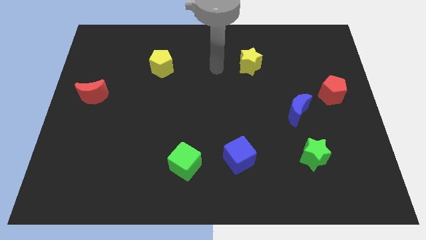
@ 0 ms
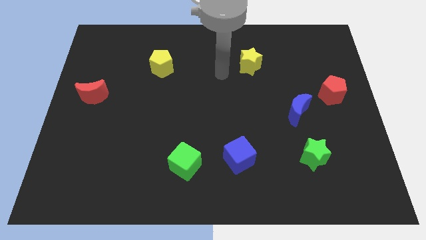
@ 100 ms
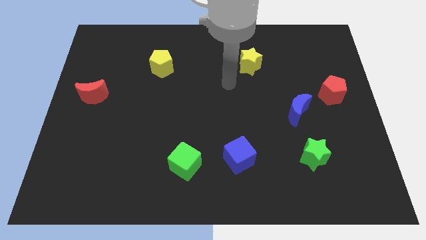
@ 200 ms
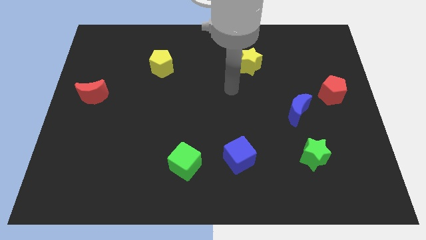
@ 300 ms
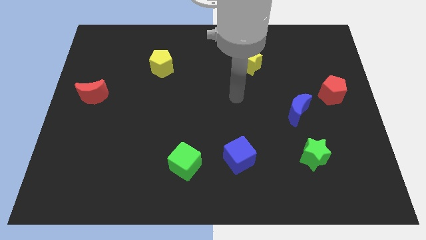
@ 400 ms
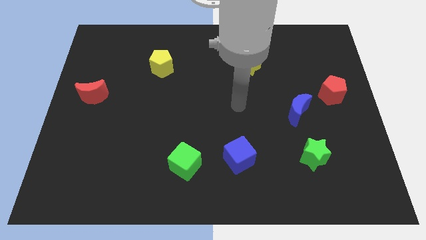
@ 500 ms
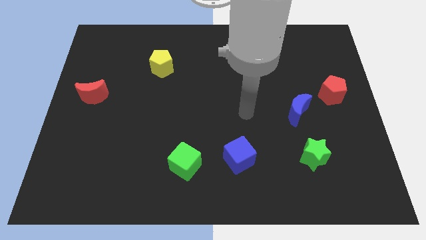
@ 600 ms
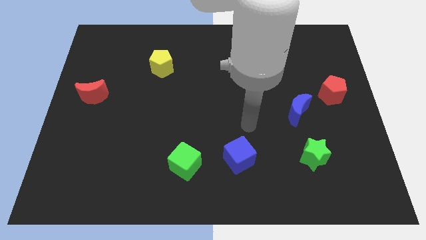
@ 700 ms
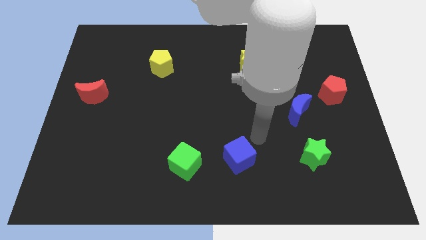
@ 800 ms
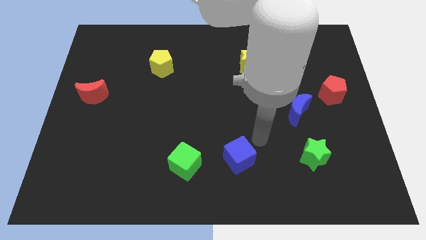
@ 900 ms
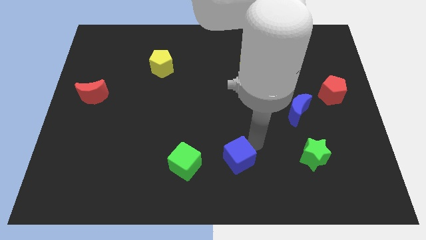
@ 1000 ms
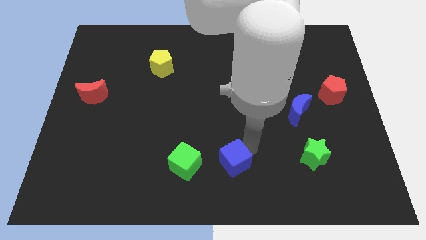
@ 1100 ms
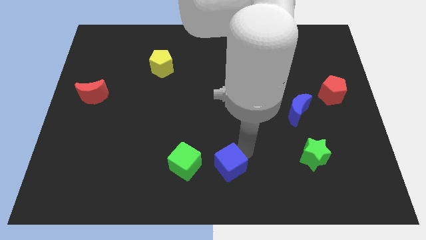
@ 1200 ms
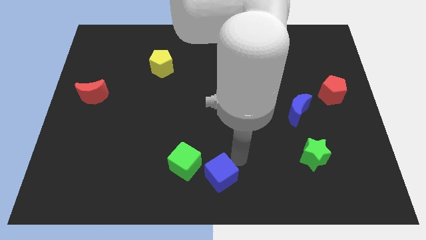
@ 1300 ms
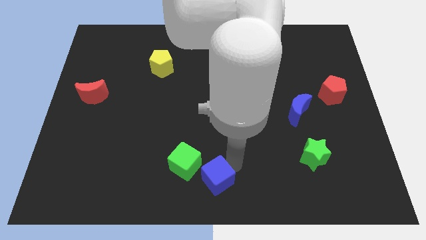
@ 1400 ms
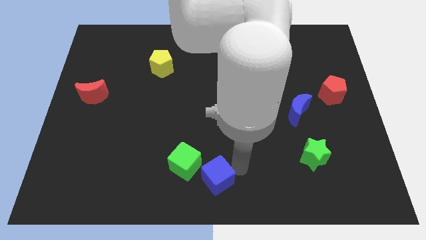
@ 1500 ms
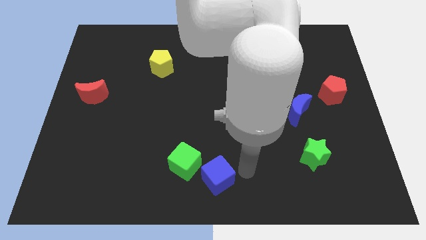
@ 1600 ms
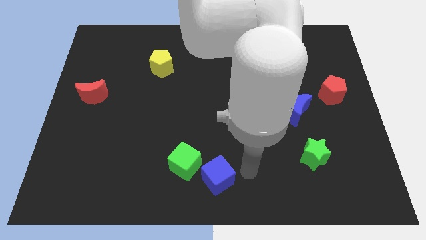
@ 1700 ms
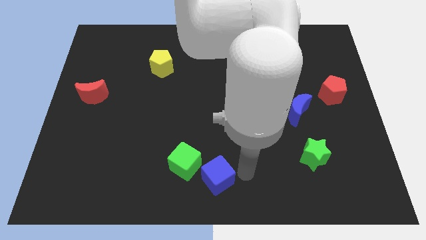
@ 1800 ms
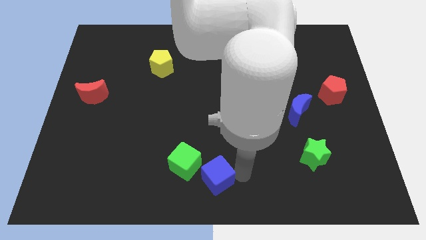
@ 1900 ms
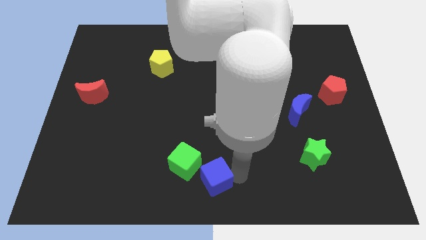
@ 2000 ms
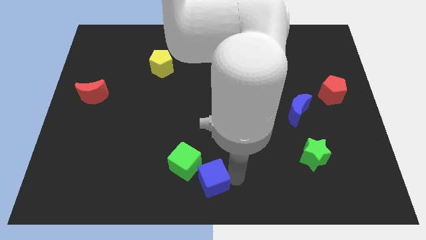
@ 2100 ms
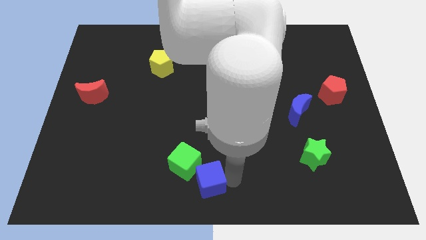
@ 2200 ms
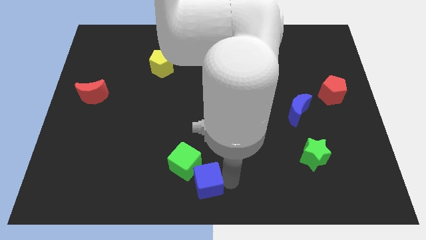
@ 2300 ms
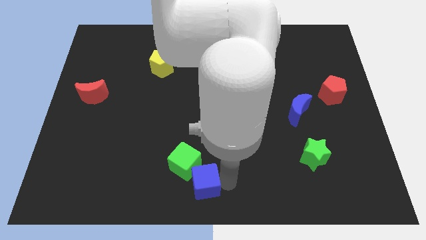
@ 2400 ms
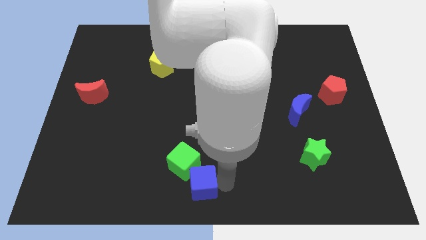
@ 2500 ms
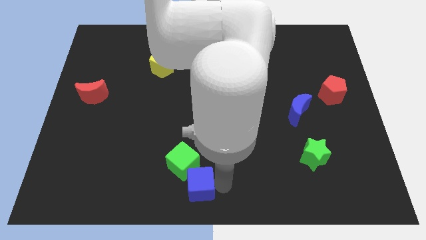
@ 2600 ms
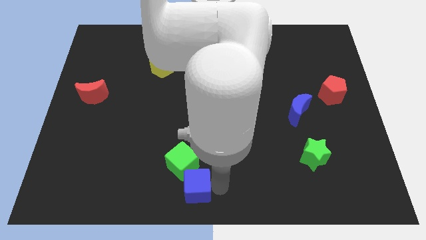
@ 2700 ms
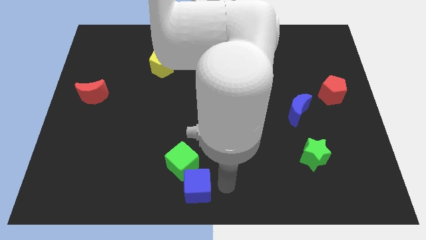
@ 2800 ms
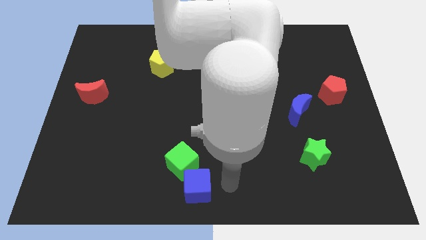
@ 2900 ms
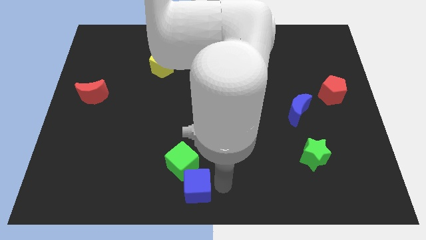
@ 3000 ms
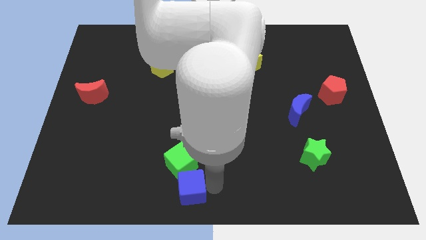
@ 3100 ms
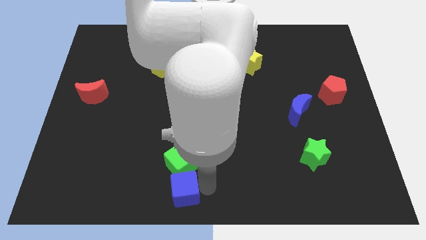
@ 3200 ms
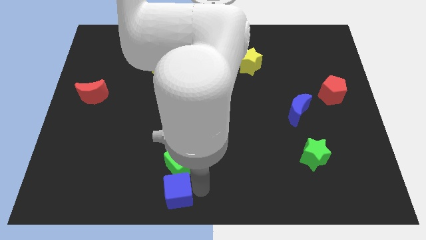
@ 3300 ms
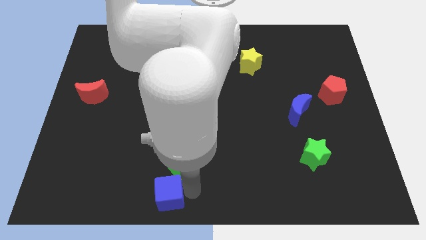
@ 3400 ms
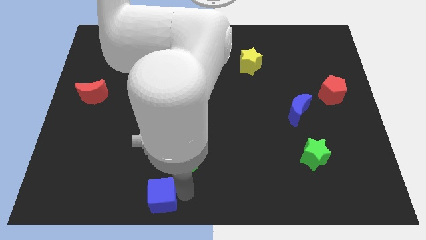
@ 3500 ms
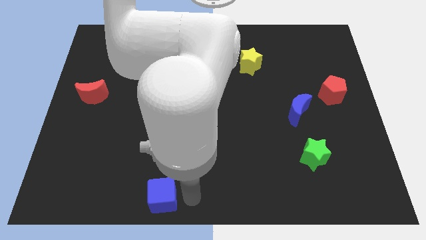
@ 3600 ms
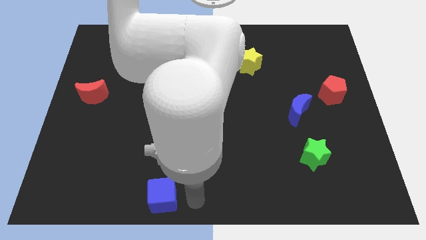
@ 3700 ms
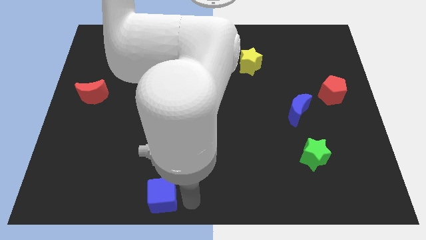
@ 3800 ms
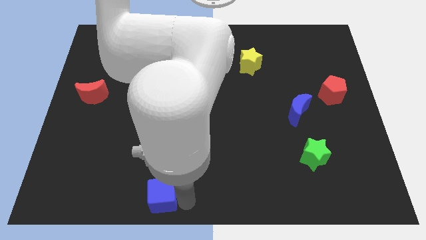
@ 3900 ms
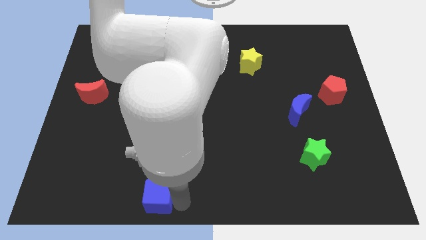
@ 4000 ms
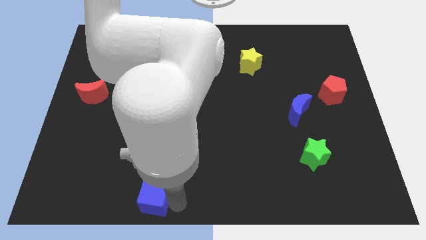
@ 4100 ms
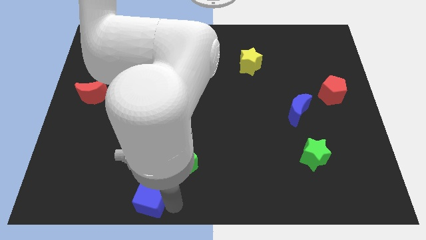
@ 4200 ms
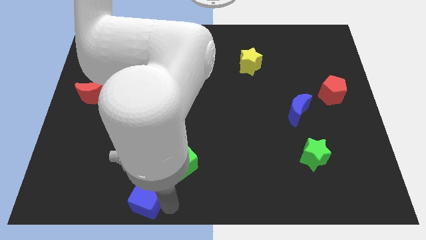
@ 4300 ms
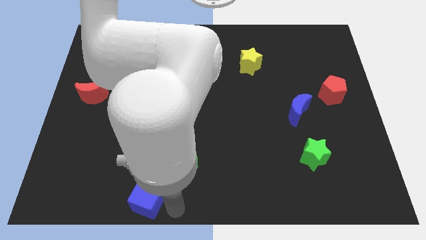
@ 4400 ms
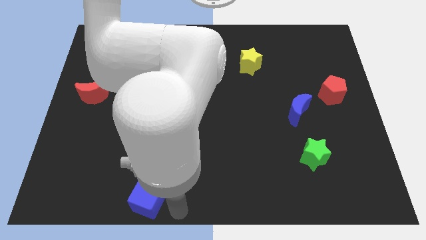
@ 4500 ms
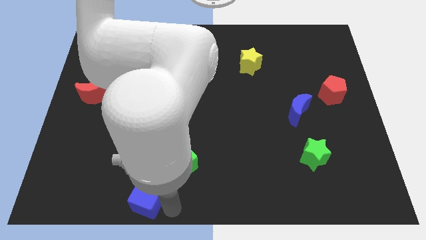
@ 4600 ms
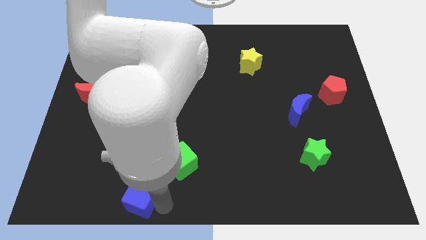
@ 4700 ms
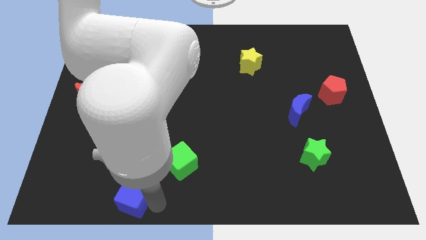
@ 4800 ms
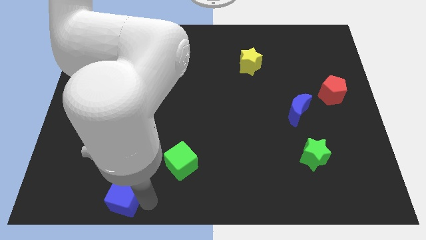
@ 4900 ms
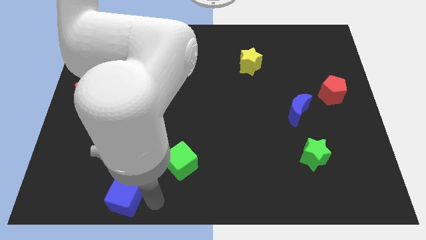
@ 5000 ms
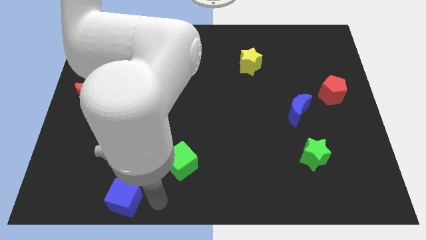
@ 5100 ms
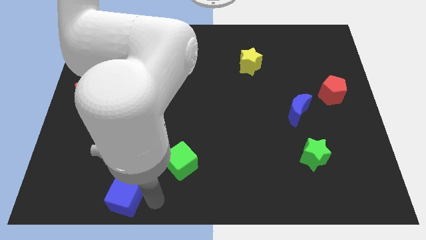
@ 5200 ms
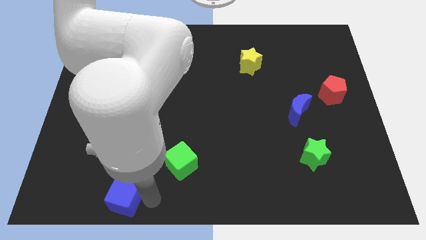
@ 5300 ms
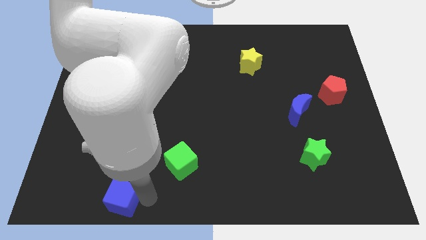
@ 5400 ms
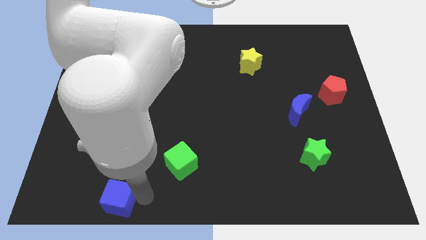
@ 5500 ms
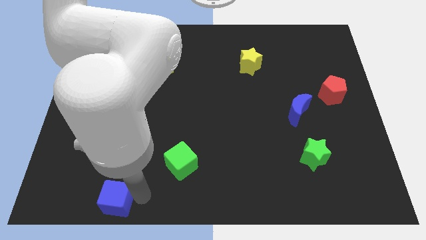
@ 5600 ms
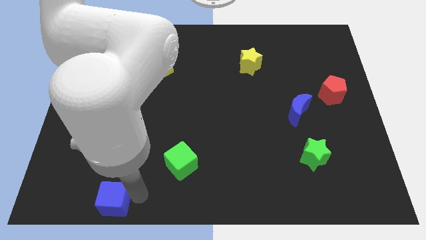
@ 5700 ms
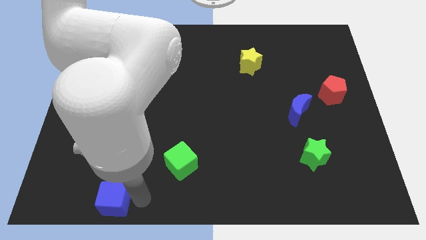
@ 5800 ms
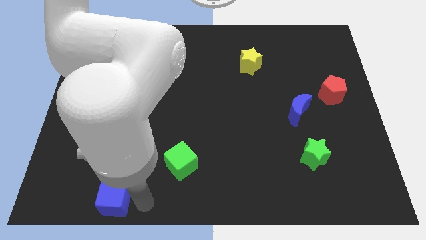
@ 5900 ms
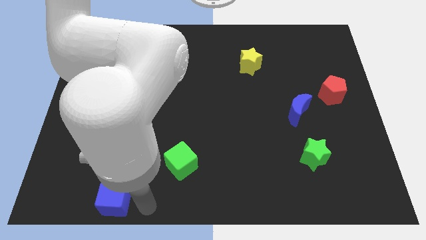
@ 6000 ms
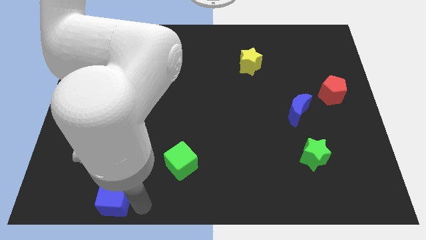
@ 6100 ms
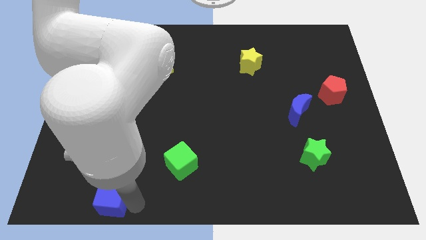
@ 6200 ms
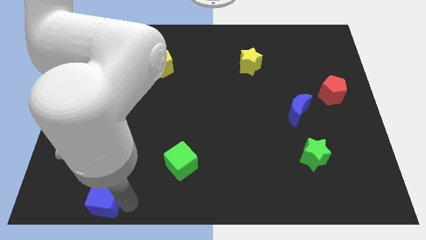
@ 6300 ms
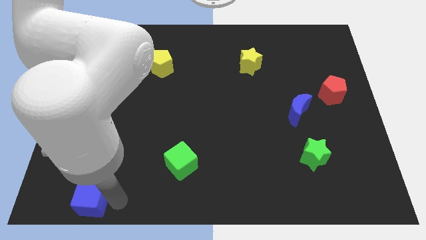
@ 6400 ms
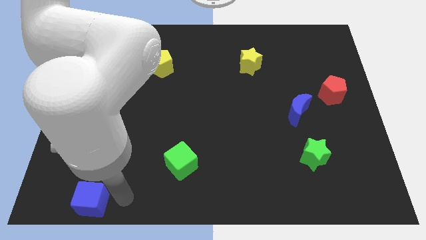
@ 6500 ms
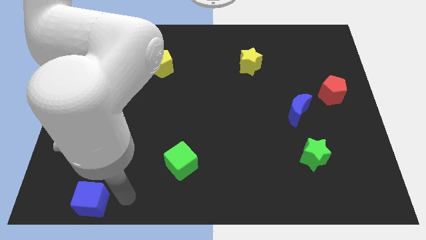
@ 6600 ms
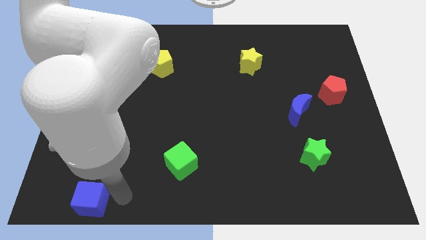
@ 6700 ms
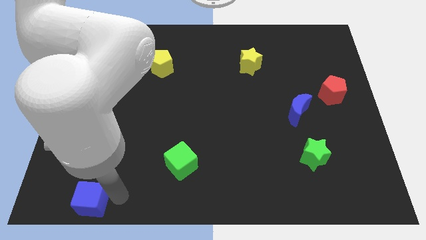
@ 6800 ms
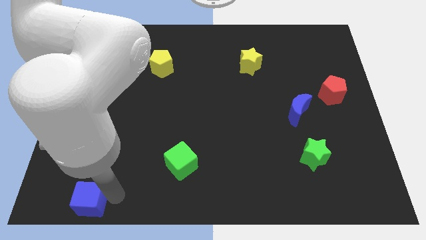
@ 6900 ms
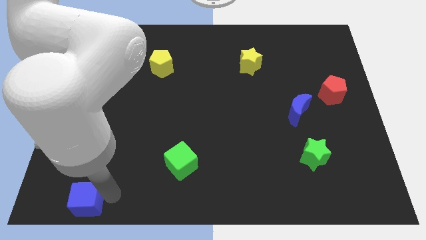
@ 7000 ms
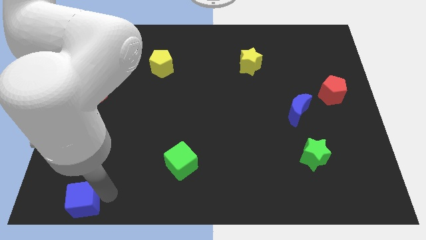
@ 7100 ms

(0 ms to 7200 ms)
put the blue cube to the lower left corner

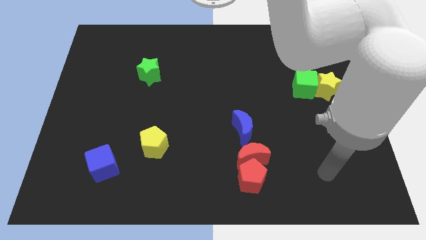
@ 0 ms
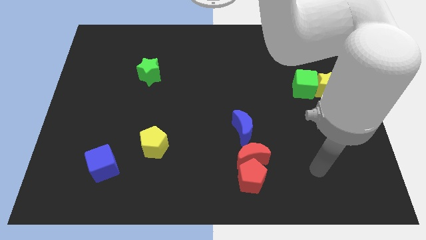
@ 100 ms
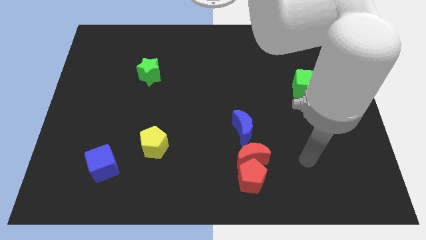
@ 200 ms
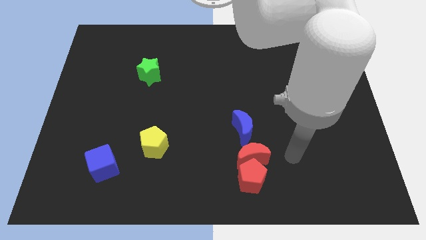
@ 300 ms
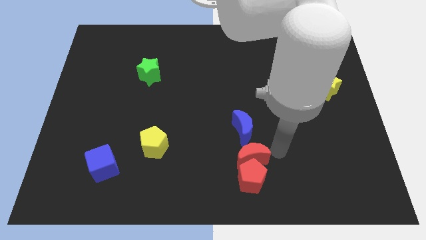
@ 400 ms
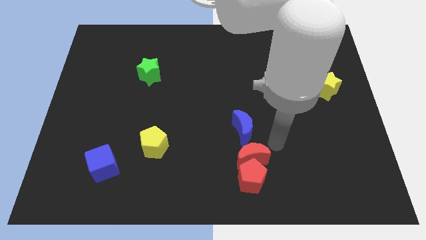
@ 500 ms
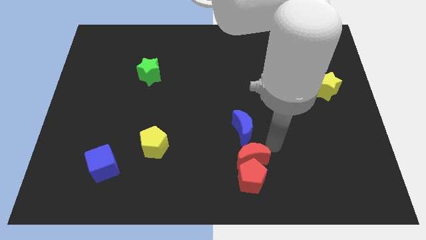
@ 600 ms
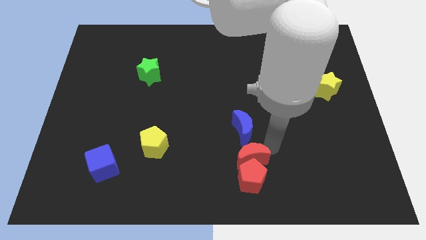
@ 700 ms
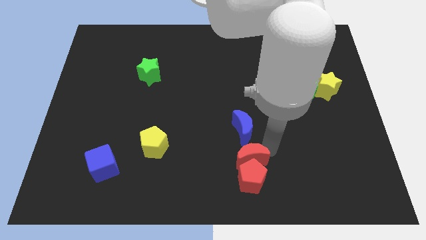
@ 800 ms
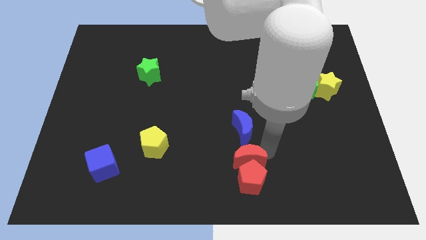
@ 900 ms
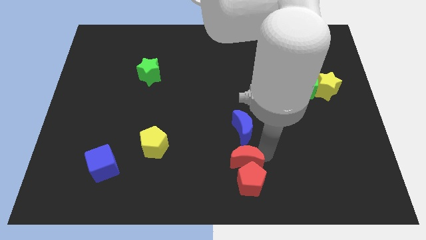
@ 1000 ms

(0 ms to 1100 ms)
move the red moon to the bottom side
